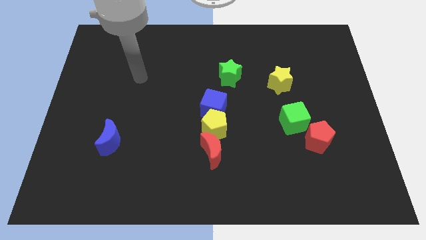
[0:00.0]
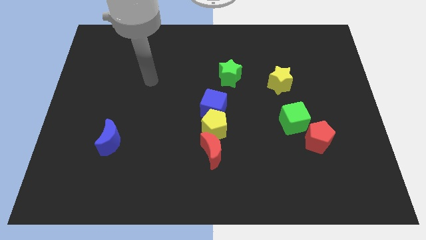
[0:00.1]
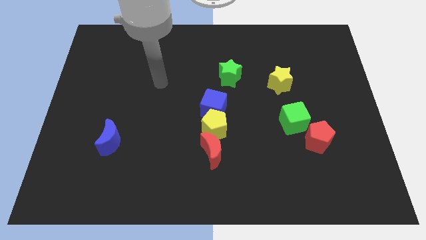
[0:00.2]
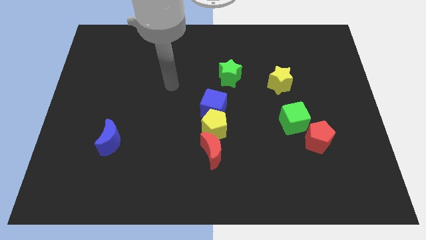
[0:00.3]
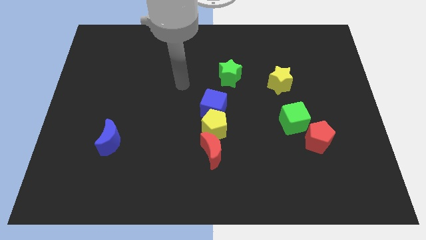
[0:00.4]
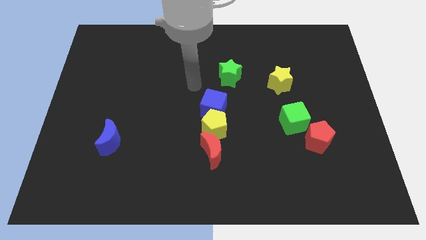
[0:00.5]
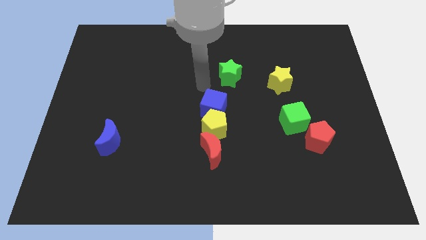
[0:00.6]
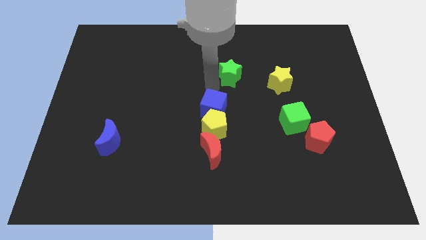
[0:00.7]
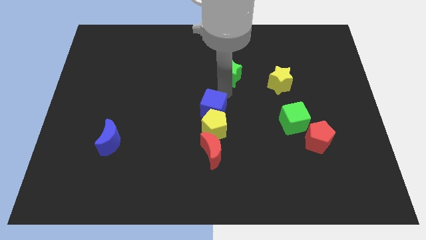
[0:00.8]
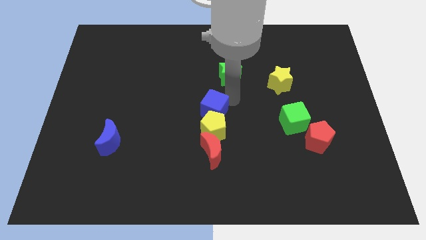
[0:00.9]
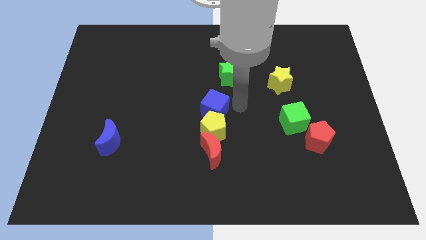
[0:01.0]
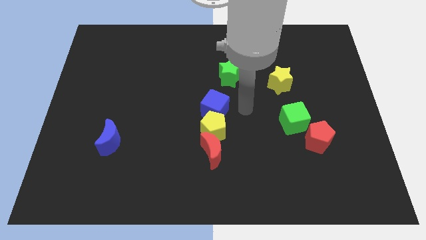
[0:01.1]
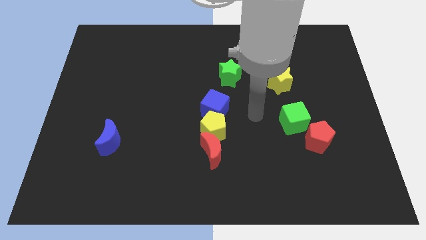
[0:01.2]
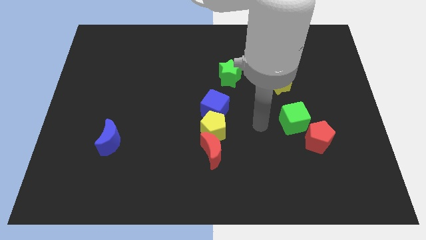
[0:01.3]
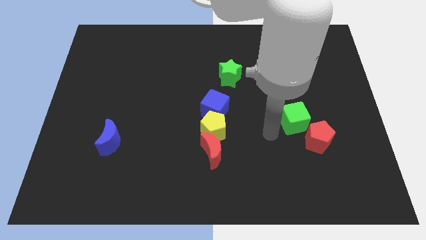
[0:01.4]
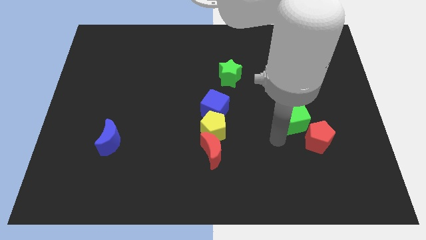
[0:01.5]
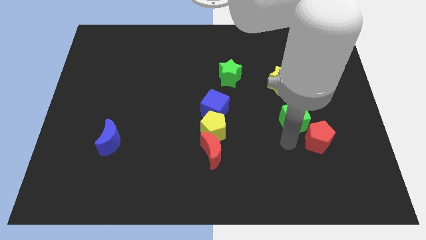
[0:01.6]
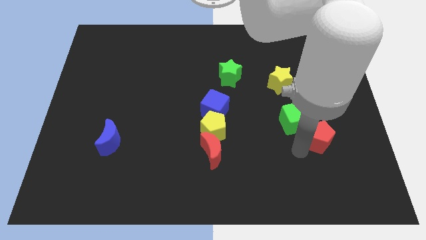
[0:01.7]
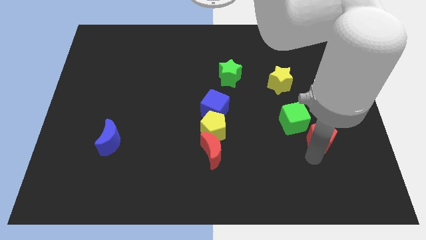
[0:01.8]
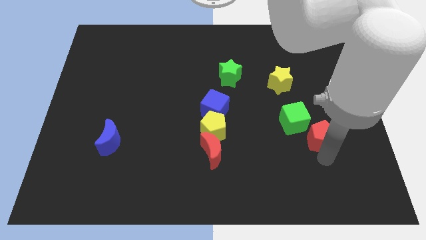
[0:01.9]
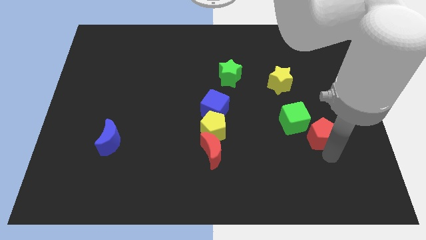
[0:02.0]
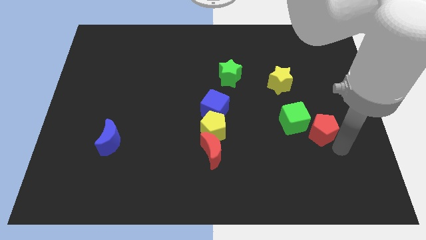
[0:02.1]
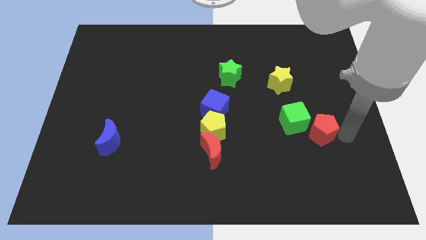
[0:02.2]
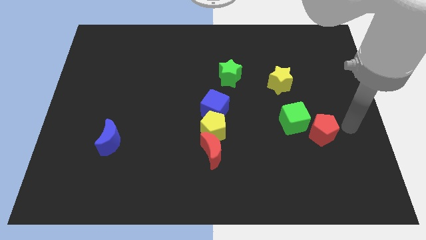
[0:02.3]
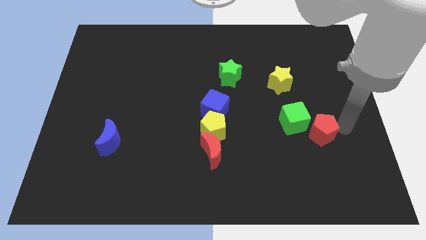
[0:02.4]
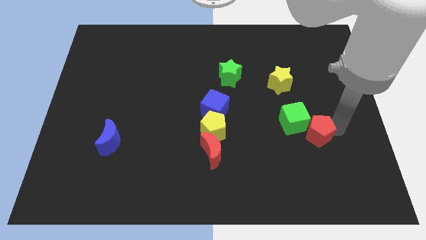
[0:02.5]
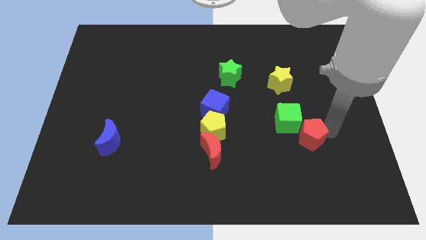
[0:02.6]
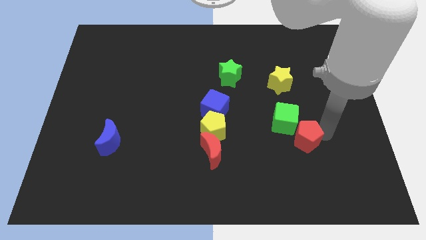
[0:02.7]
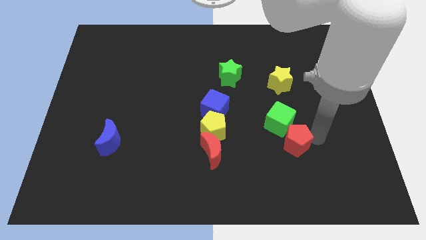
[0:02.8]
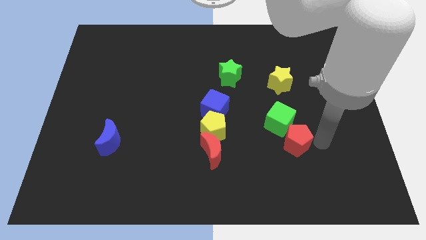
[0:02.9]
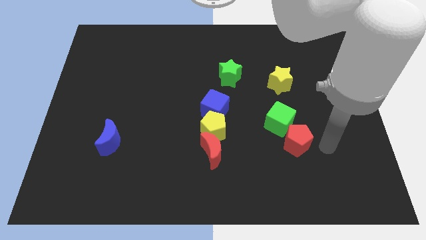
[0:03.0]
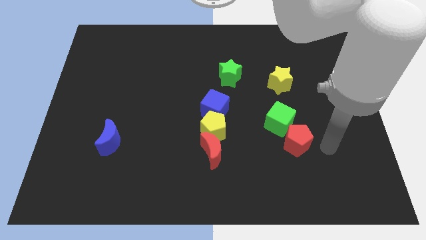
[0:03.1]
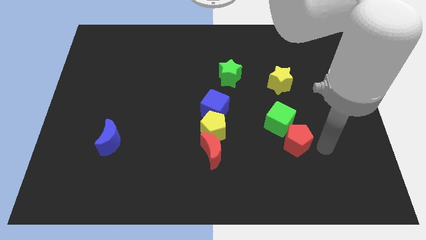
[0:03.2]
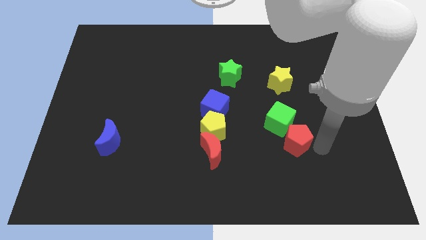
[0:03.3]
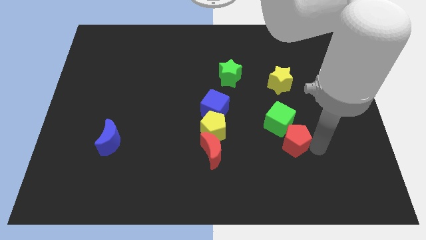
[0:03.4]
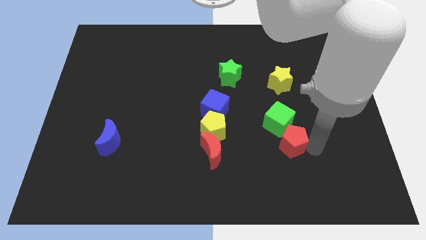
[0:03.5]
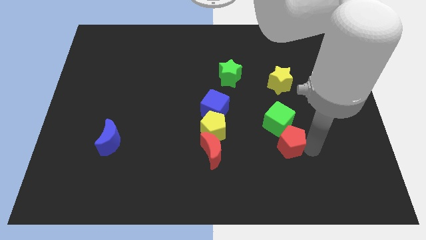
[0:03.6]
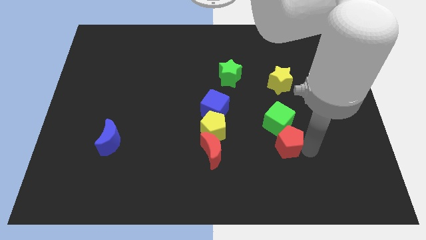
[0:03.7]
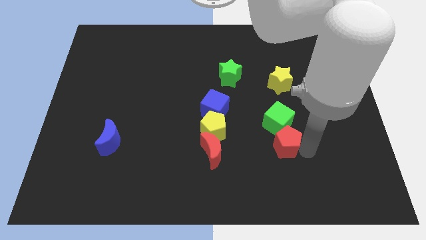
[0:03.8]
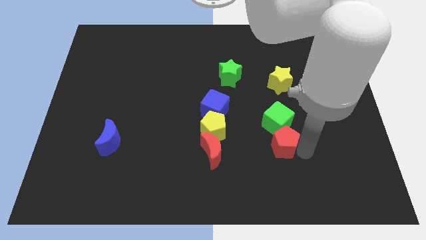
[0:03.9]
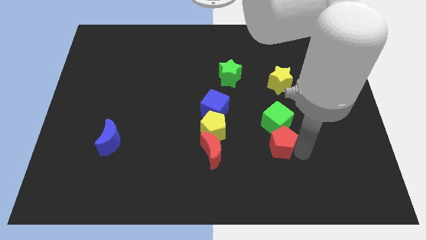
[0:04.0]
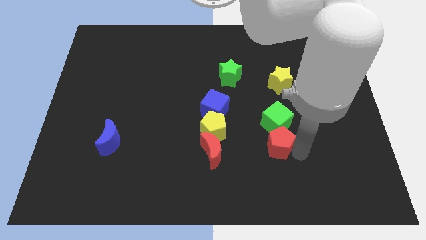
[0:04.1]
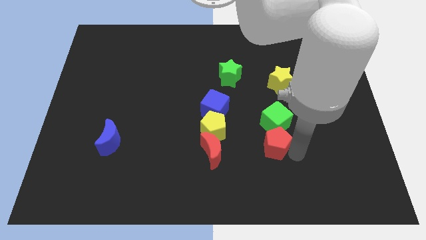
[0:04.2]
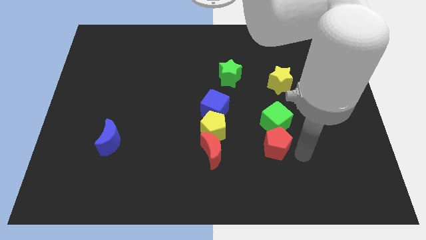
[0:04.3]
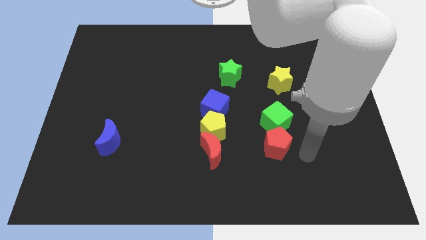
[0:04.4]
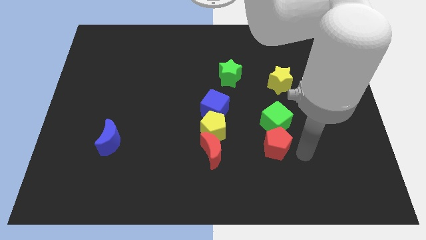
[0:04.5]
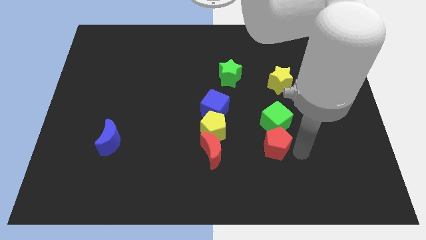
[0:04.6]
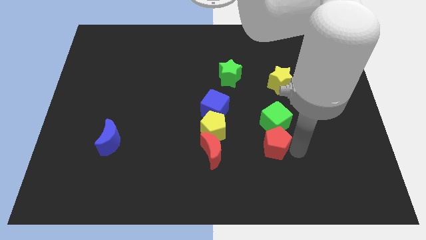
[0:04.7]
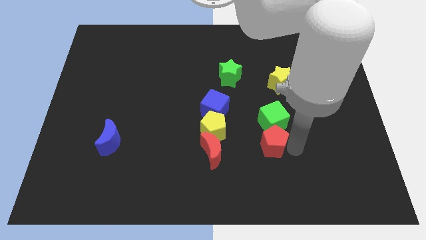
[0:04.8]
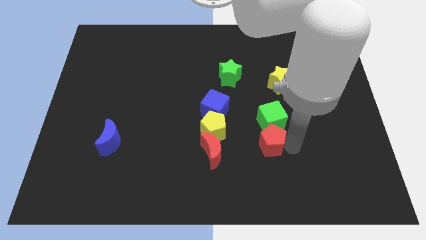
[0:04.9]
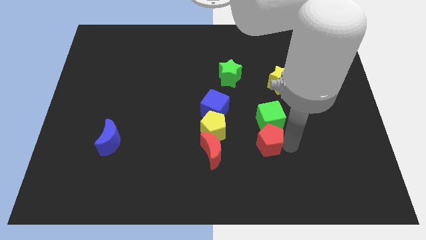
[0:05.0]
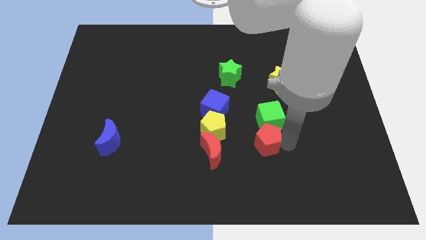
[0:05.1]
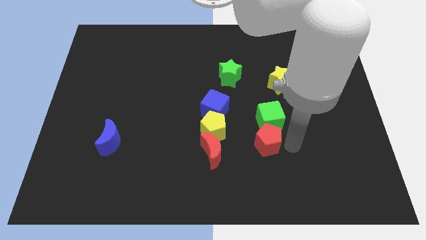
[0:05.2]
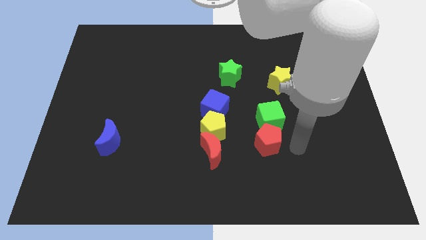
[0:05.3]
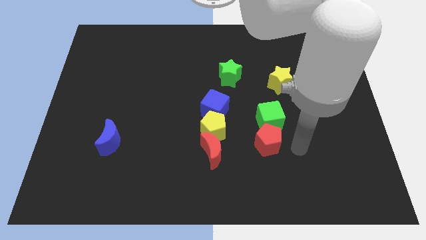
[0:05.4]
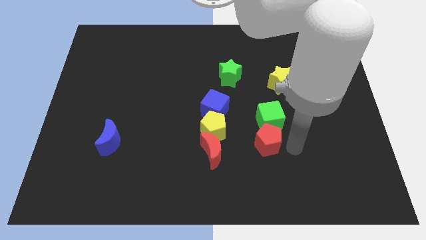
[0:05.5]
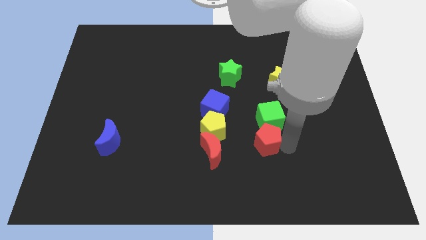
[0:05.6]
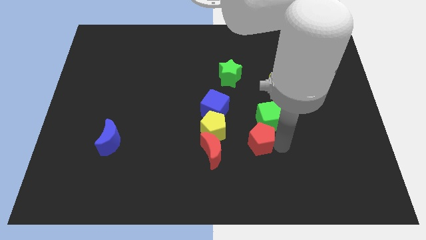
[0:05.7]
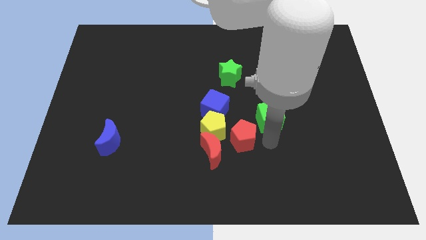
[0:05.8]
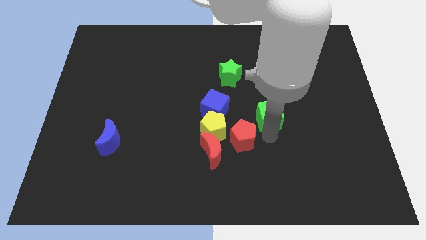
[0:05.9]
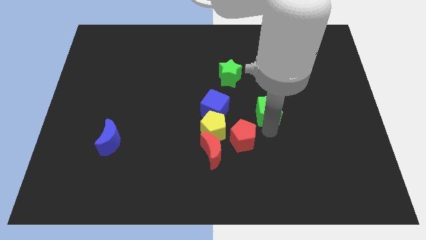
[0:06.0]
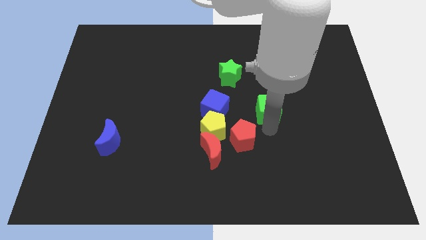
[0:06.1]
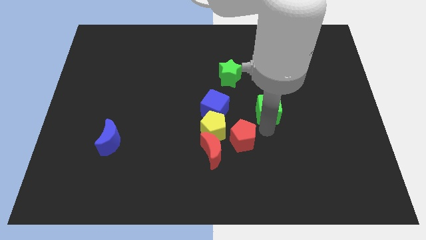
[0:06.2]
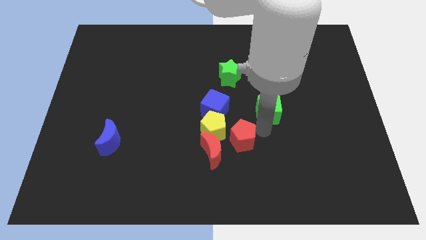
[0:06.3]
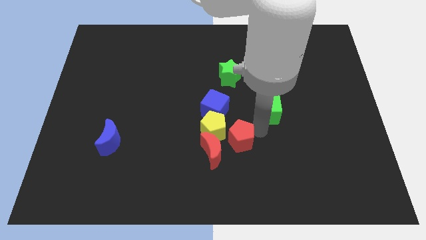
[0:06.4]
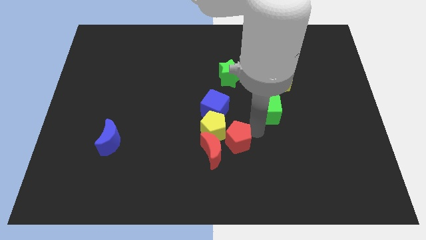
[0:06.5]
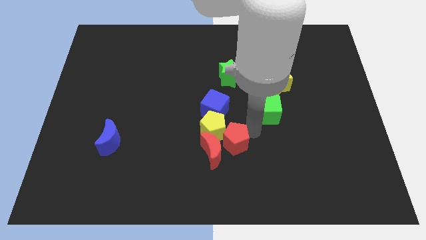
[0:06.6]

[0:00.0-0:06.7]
push the red pentagon close to the red moon

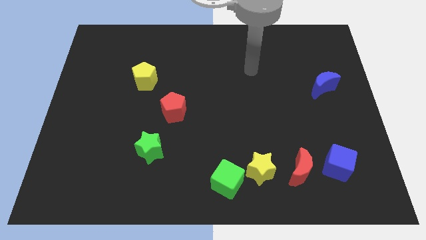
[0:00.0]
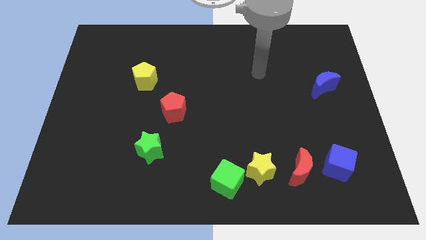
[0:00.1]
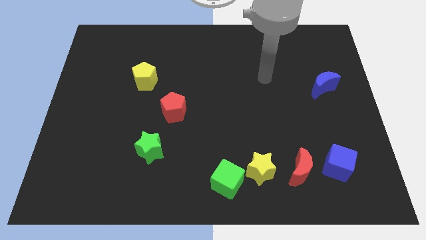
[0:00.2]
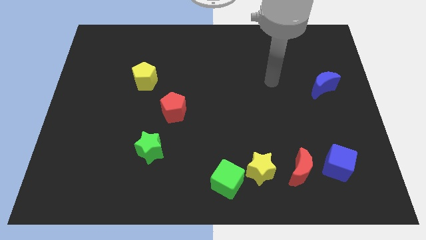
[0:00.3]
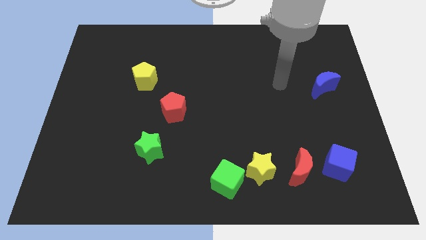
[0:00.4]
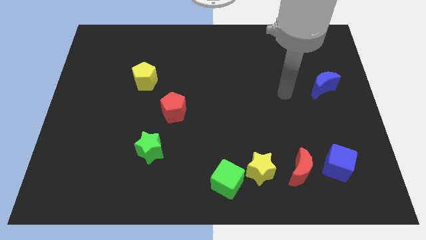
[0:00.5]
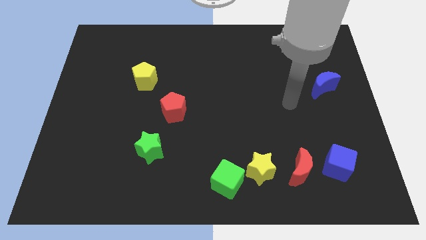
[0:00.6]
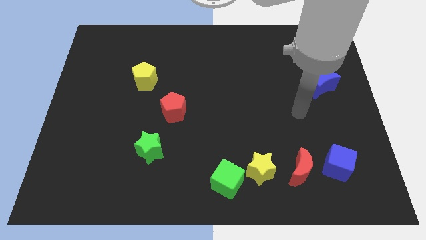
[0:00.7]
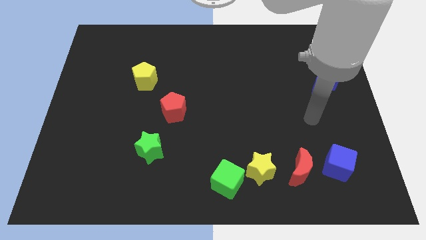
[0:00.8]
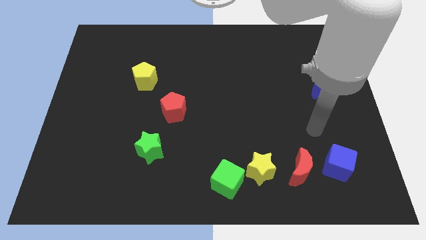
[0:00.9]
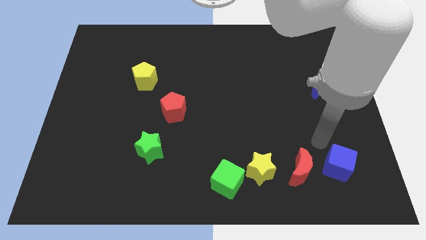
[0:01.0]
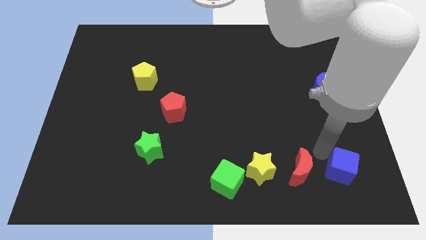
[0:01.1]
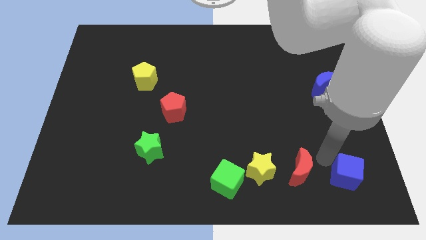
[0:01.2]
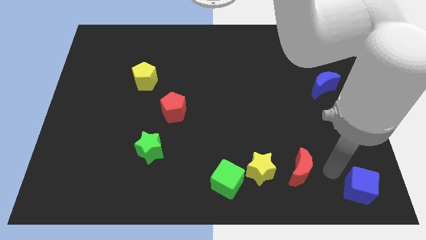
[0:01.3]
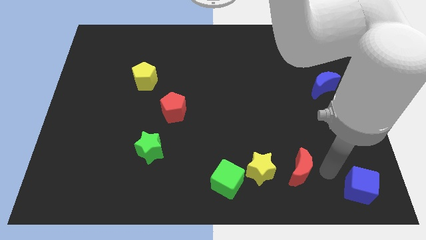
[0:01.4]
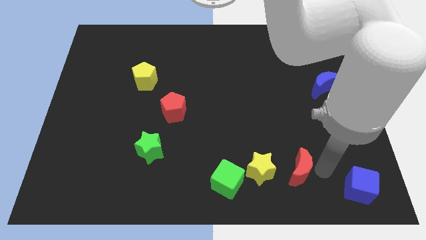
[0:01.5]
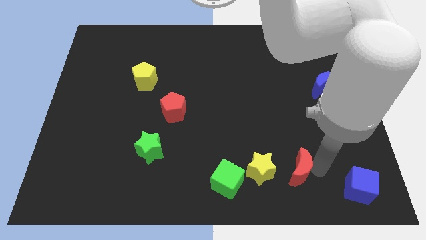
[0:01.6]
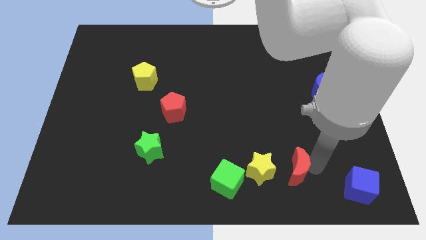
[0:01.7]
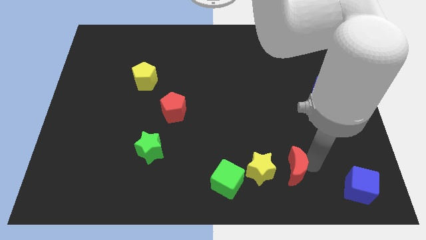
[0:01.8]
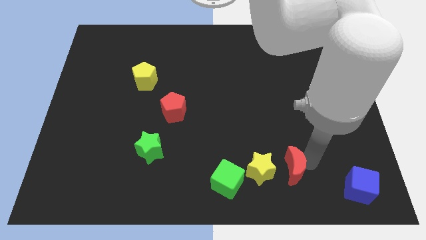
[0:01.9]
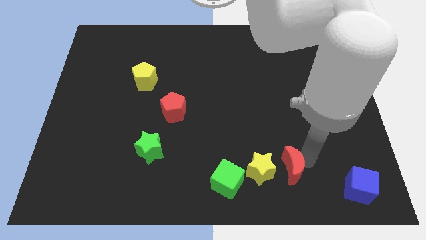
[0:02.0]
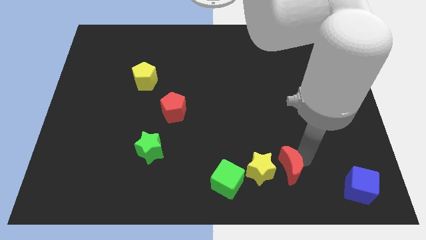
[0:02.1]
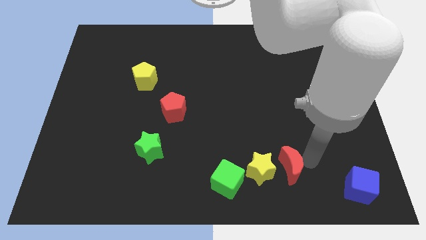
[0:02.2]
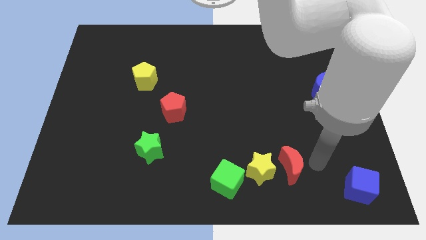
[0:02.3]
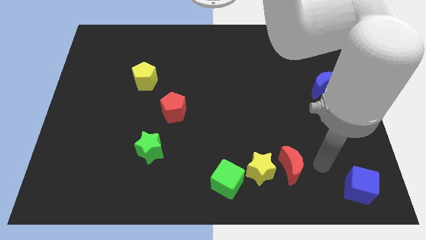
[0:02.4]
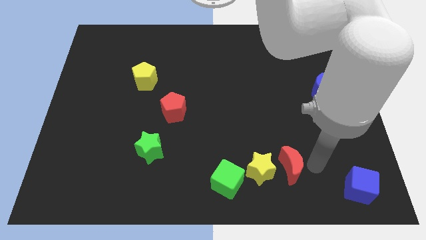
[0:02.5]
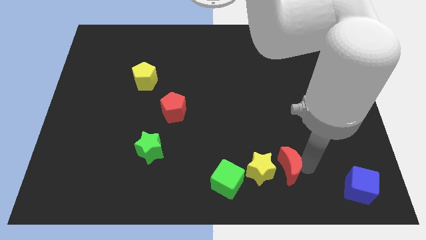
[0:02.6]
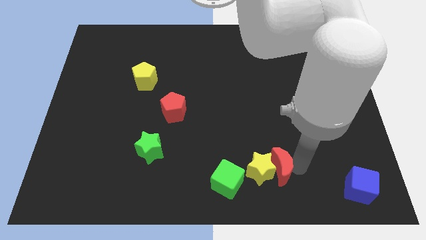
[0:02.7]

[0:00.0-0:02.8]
put the red moon to the yellow star
